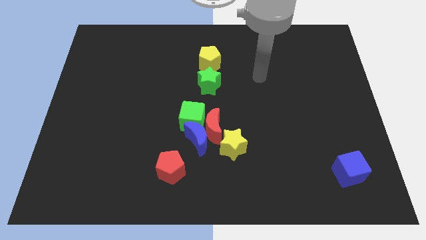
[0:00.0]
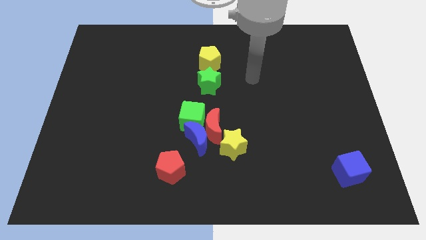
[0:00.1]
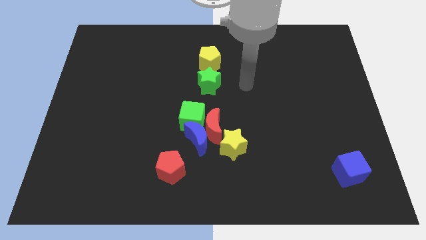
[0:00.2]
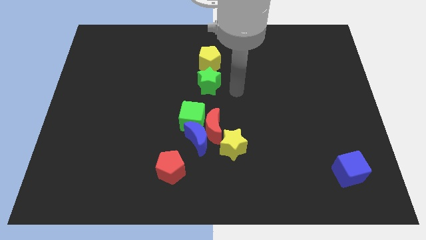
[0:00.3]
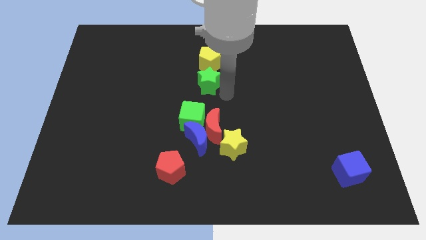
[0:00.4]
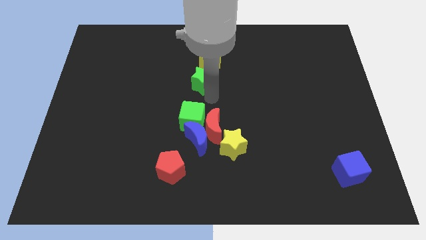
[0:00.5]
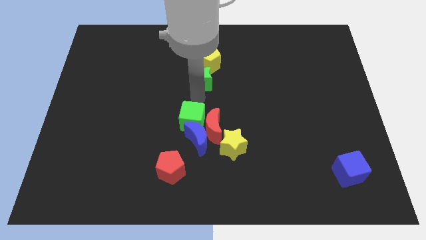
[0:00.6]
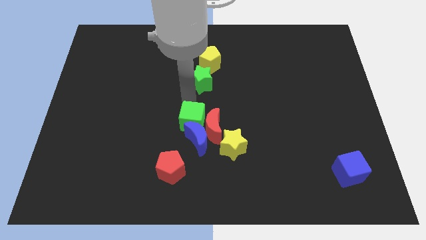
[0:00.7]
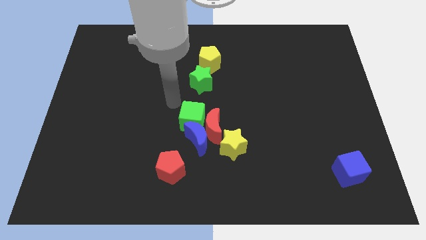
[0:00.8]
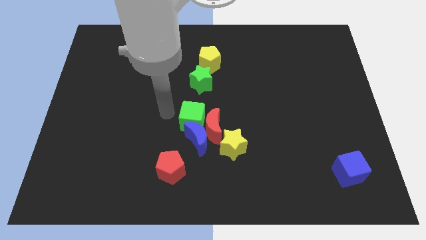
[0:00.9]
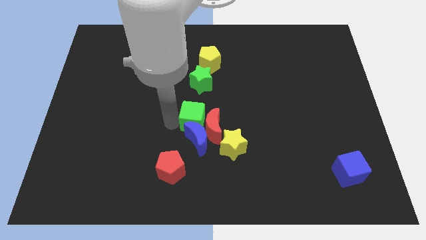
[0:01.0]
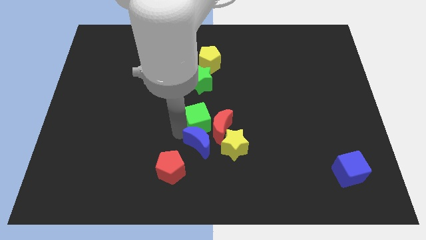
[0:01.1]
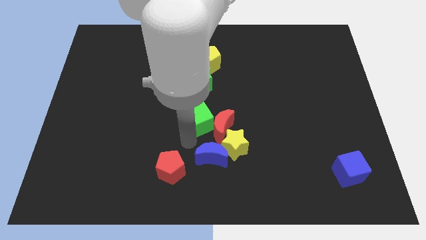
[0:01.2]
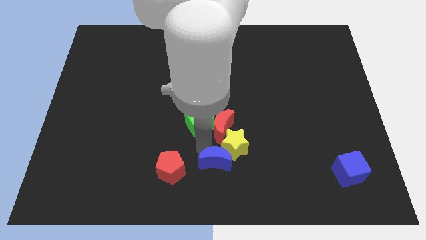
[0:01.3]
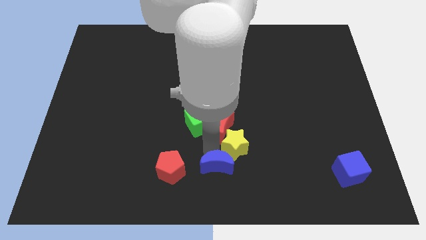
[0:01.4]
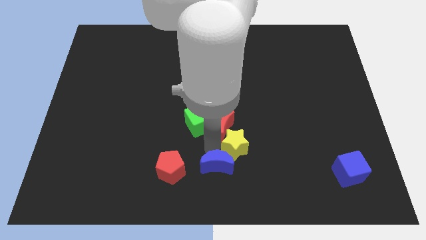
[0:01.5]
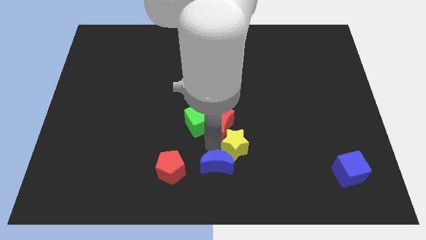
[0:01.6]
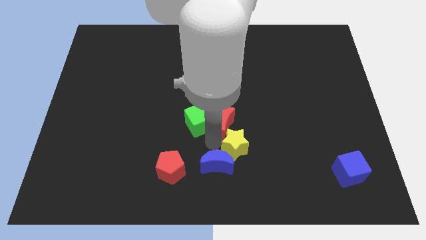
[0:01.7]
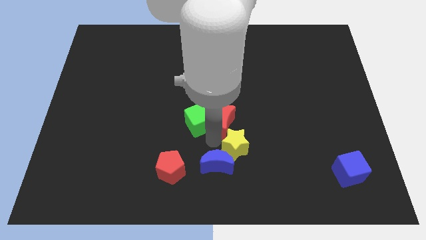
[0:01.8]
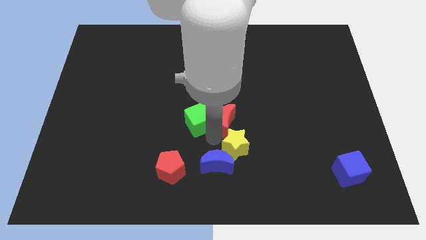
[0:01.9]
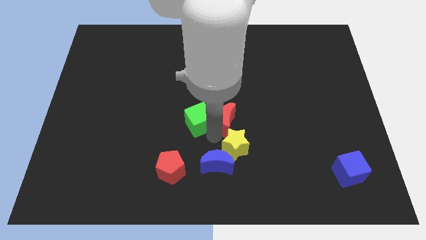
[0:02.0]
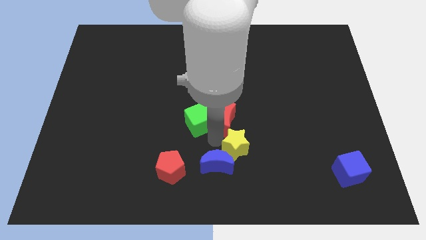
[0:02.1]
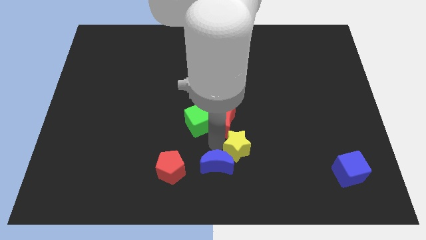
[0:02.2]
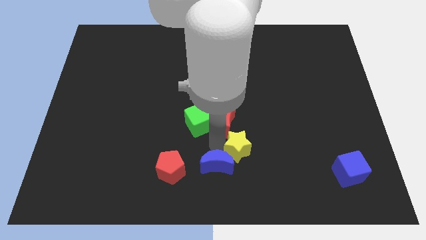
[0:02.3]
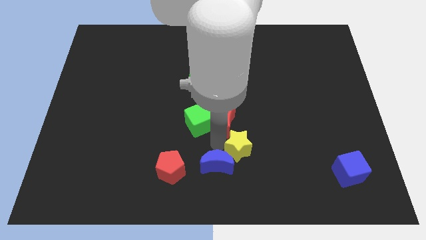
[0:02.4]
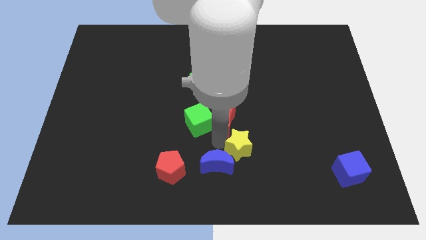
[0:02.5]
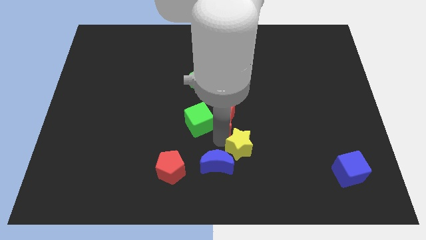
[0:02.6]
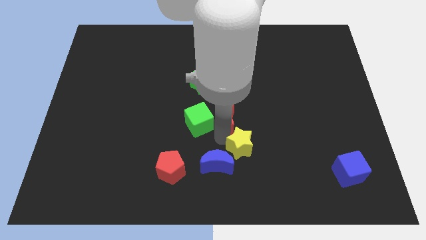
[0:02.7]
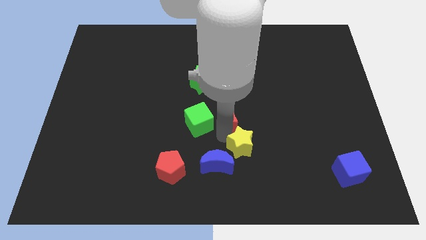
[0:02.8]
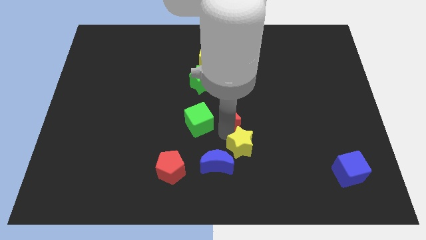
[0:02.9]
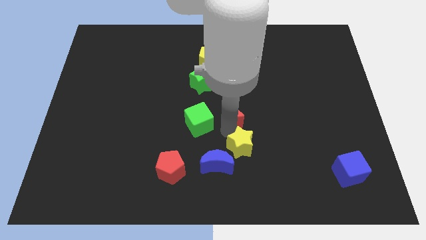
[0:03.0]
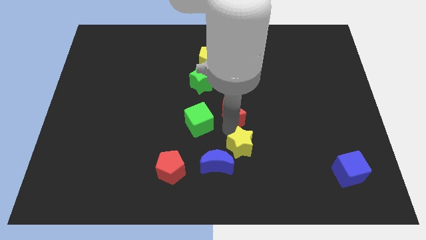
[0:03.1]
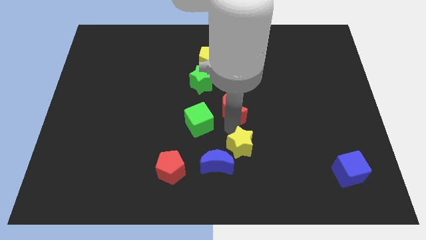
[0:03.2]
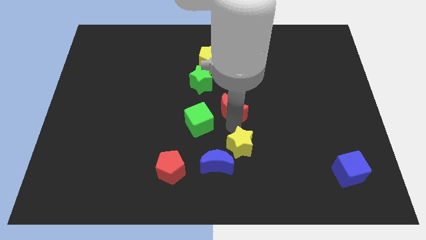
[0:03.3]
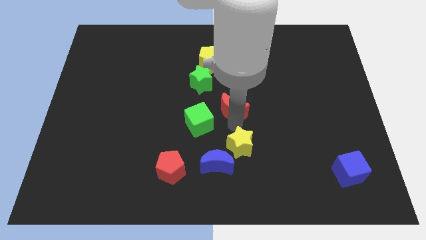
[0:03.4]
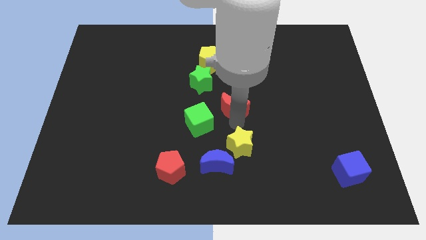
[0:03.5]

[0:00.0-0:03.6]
pull the red moon apart from the group of blocks

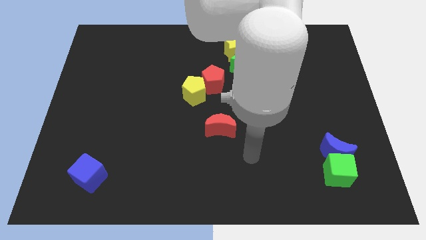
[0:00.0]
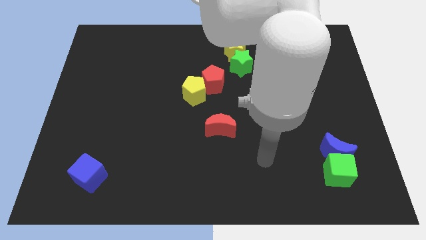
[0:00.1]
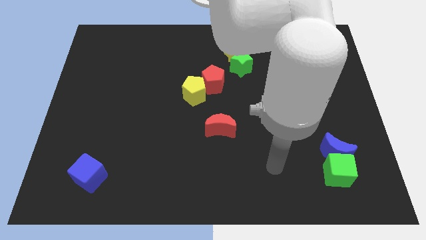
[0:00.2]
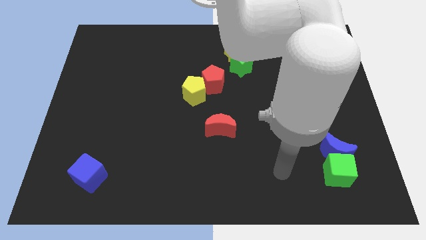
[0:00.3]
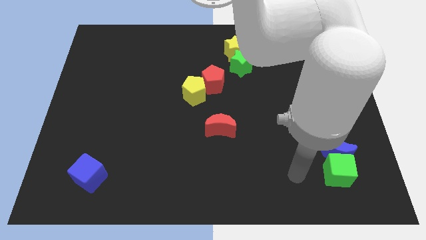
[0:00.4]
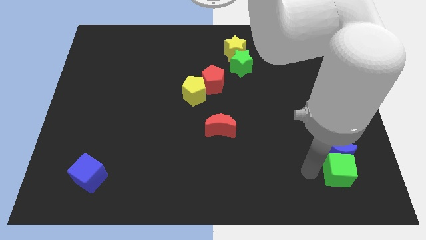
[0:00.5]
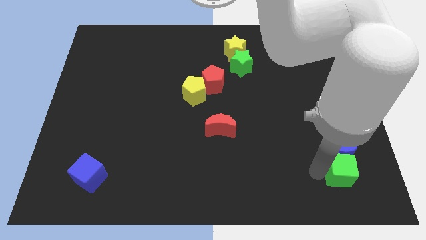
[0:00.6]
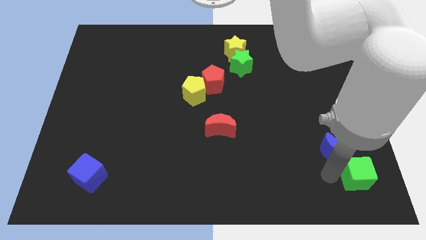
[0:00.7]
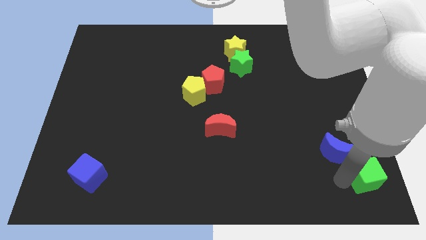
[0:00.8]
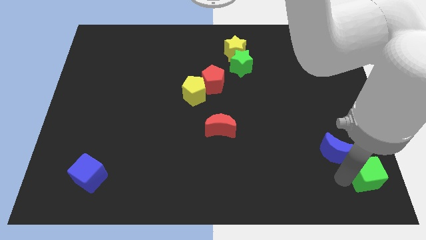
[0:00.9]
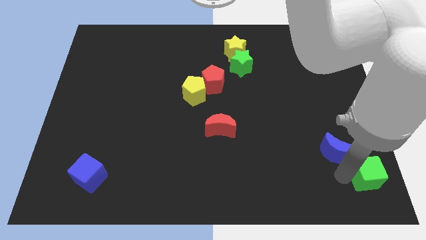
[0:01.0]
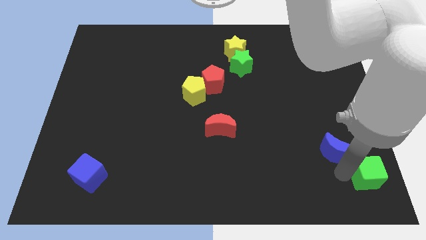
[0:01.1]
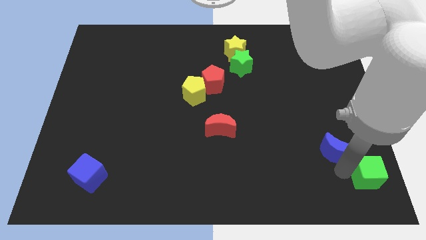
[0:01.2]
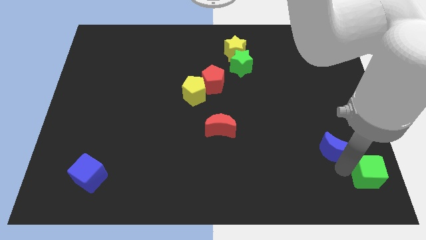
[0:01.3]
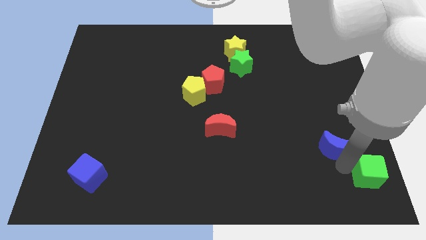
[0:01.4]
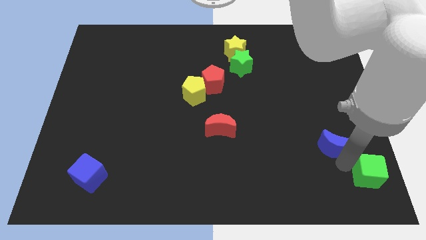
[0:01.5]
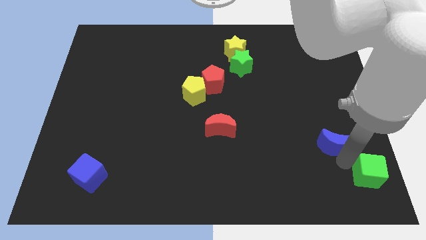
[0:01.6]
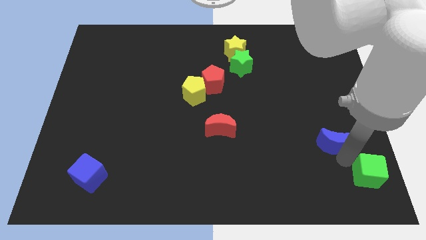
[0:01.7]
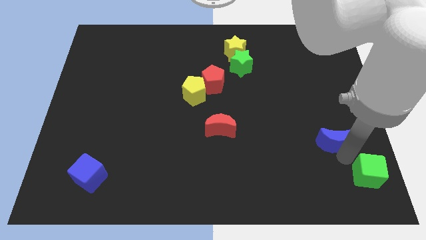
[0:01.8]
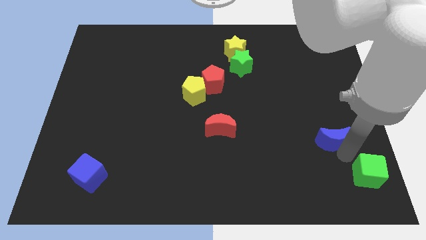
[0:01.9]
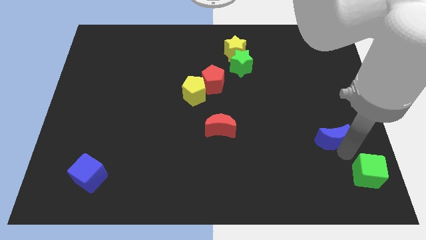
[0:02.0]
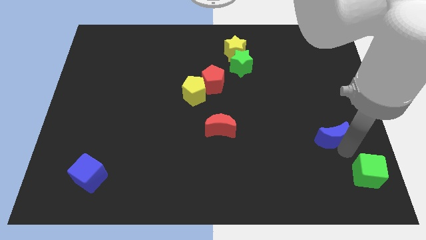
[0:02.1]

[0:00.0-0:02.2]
separate the blue moon from the green cube

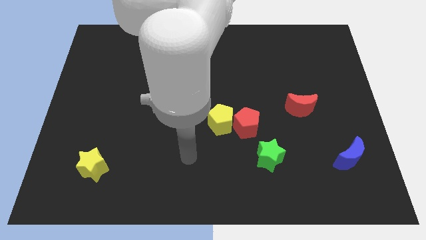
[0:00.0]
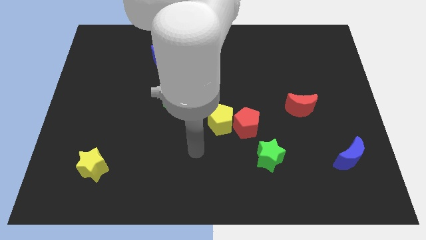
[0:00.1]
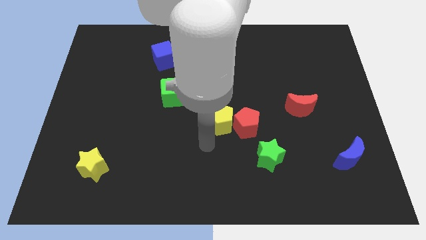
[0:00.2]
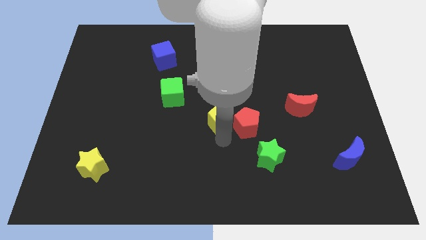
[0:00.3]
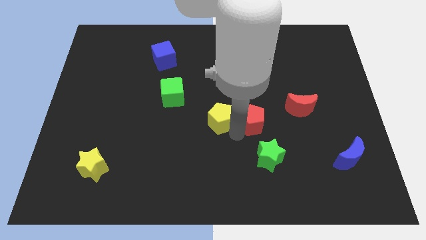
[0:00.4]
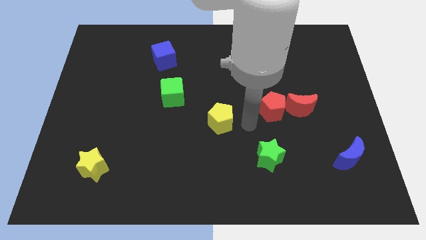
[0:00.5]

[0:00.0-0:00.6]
separate the yellow pentagon from the red pentagon

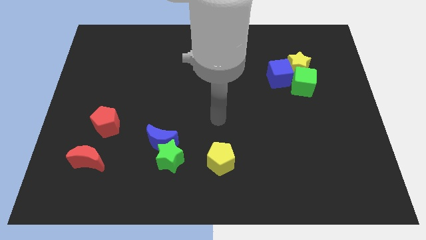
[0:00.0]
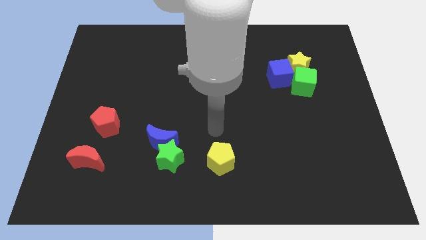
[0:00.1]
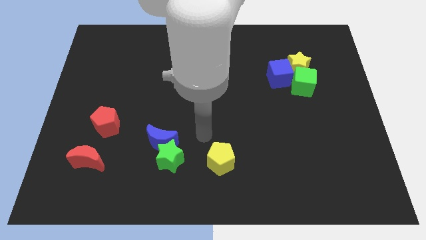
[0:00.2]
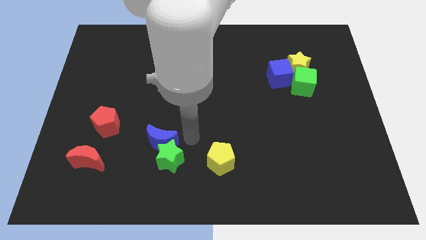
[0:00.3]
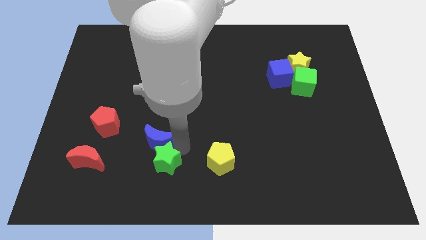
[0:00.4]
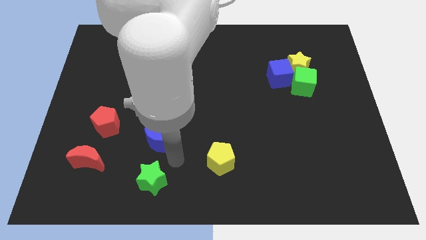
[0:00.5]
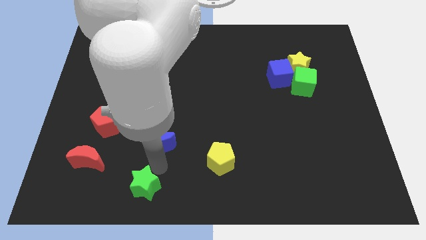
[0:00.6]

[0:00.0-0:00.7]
separate the blue moon from the green star

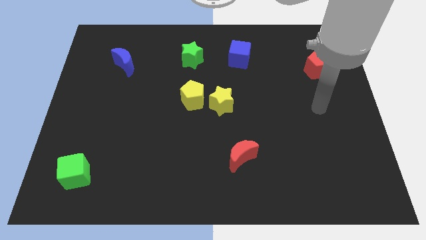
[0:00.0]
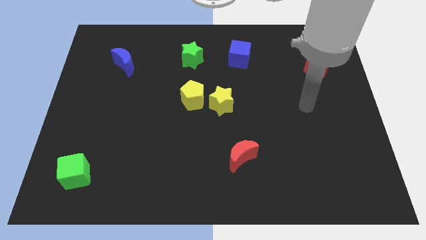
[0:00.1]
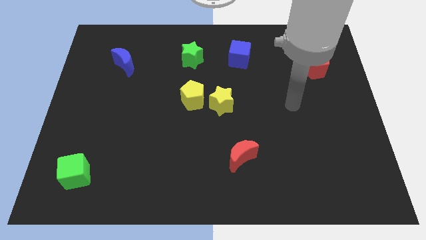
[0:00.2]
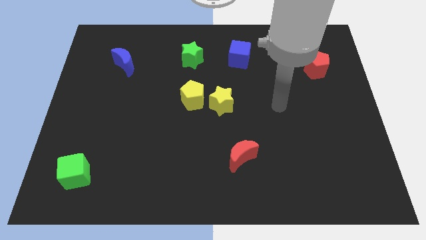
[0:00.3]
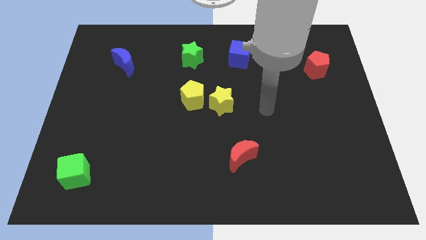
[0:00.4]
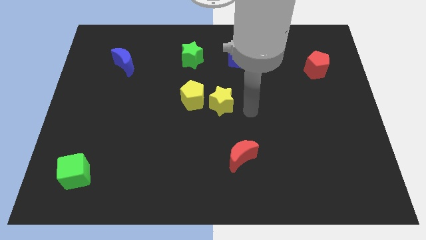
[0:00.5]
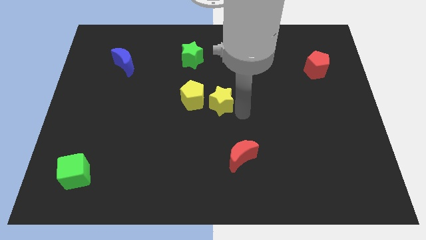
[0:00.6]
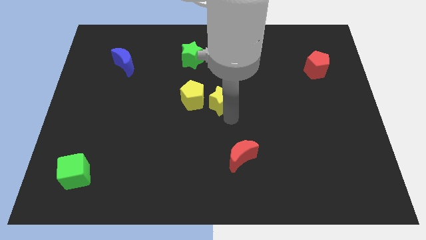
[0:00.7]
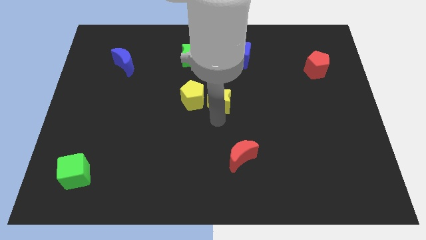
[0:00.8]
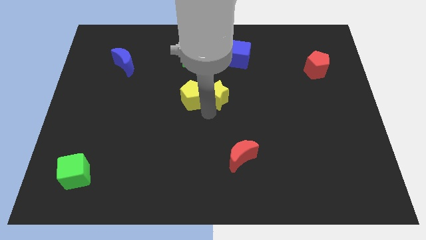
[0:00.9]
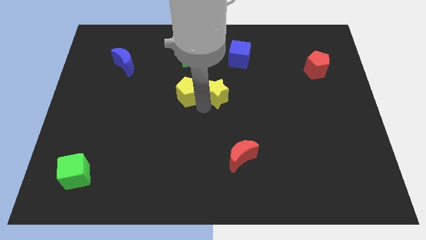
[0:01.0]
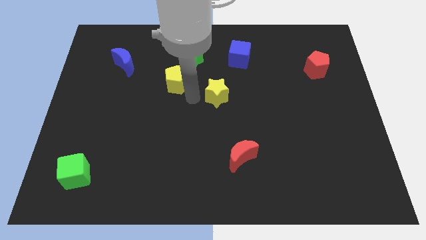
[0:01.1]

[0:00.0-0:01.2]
separate the yellow star from the yellow pentagon

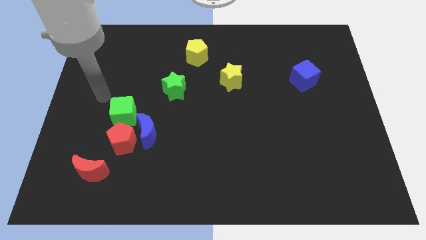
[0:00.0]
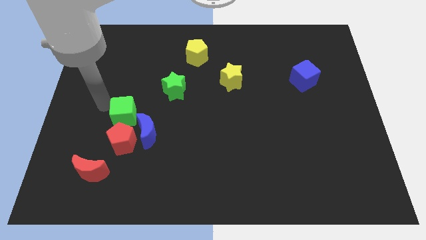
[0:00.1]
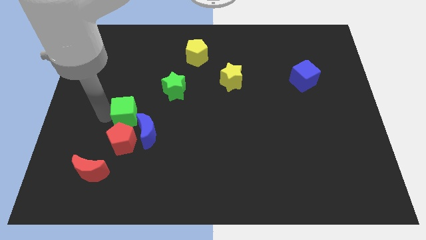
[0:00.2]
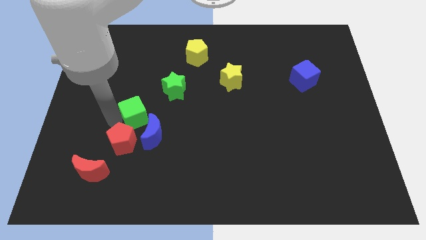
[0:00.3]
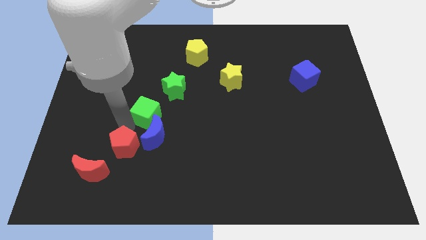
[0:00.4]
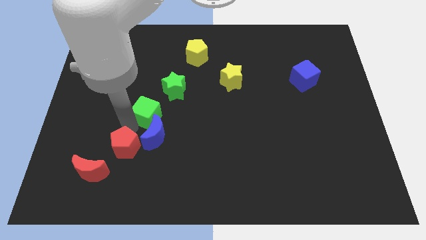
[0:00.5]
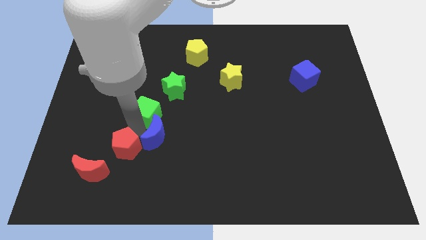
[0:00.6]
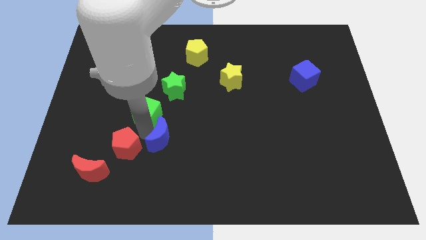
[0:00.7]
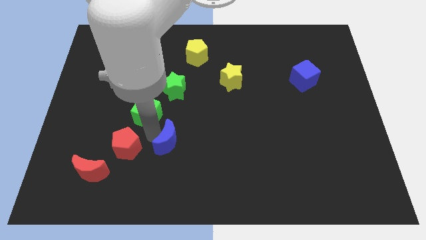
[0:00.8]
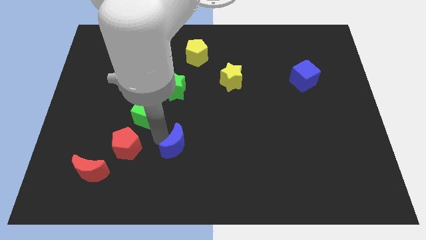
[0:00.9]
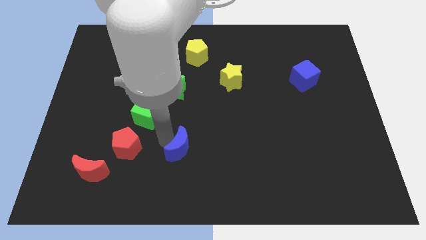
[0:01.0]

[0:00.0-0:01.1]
pull the blue moon apart from the red pentagon and green cube
